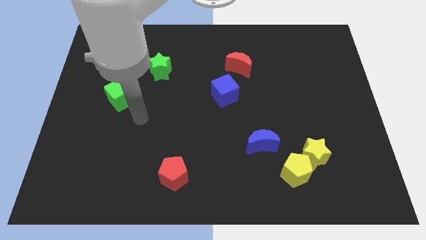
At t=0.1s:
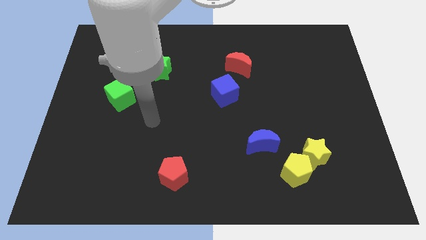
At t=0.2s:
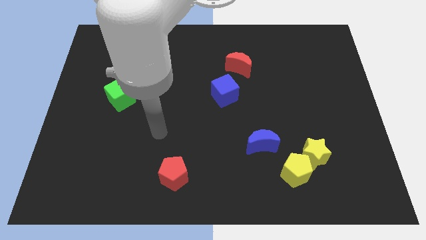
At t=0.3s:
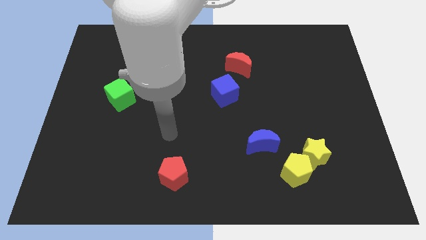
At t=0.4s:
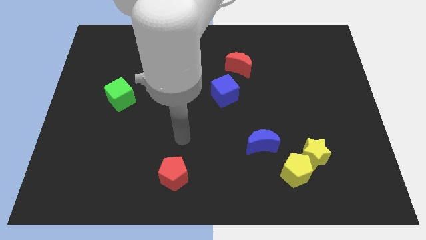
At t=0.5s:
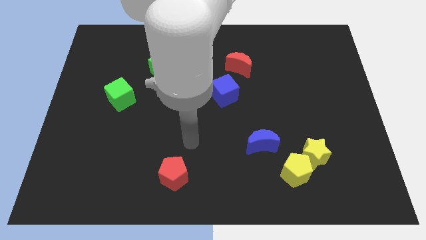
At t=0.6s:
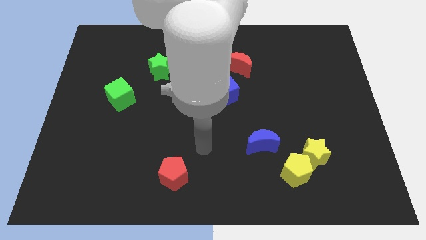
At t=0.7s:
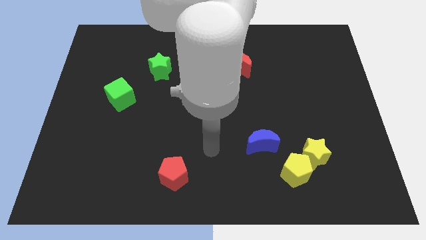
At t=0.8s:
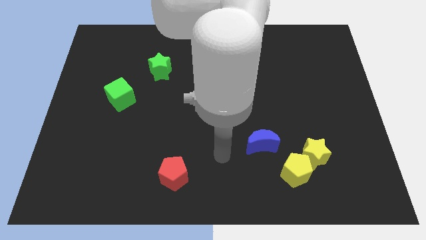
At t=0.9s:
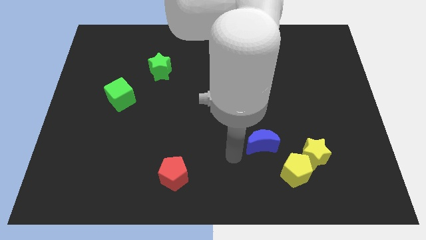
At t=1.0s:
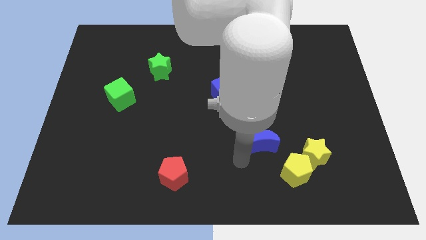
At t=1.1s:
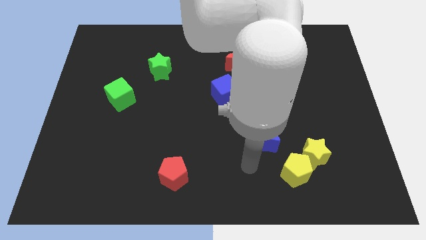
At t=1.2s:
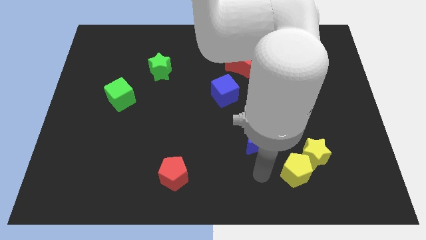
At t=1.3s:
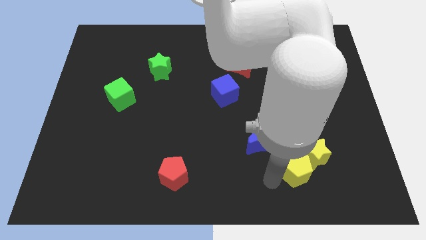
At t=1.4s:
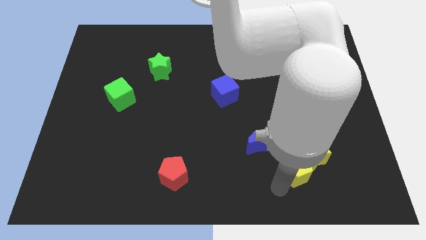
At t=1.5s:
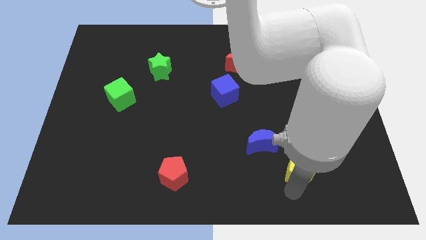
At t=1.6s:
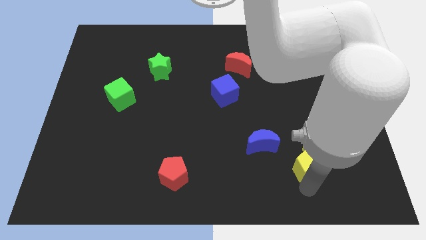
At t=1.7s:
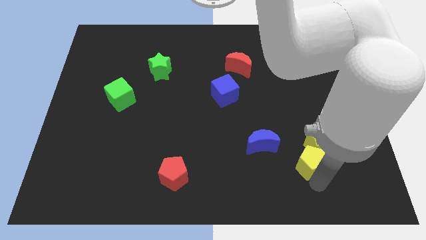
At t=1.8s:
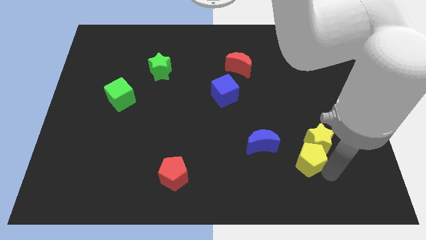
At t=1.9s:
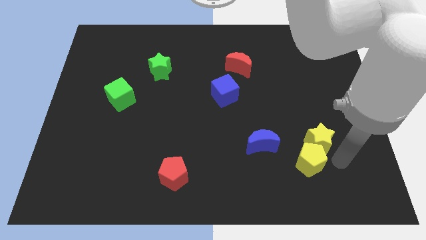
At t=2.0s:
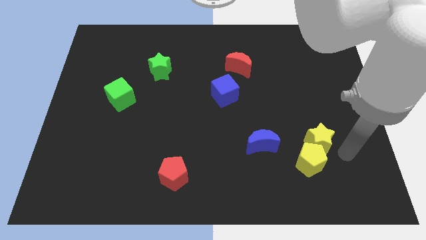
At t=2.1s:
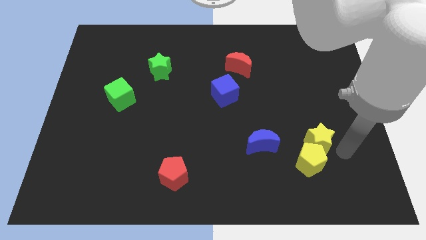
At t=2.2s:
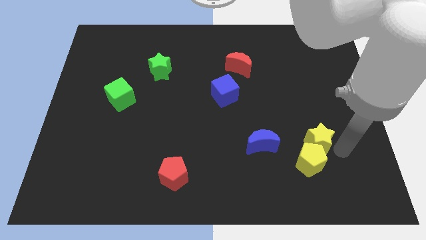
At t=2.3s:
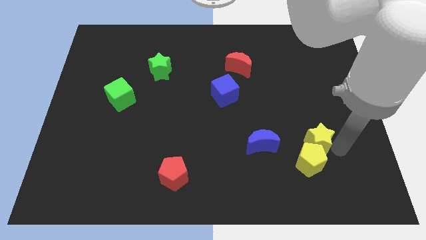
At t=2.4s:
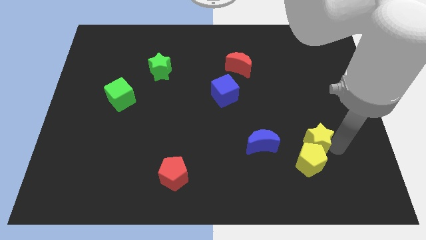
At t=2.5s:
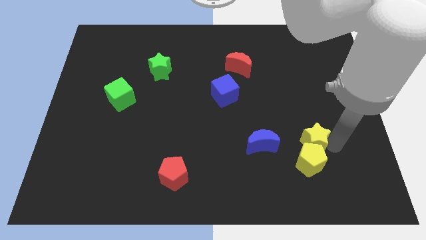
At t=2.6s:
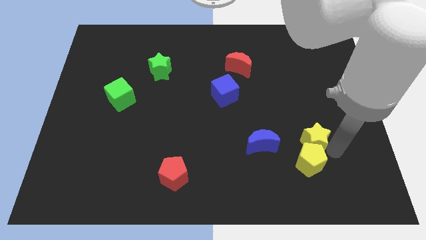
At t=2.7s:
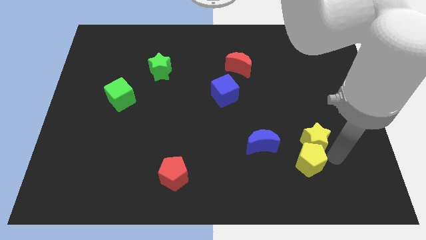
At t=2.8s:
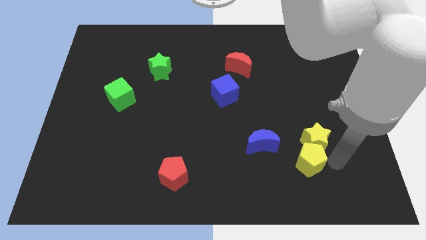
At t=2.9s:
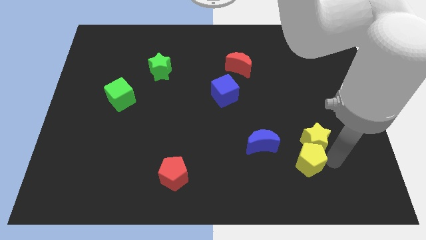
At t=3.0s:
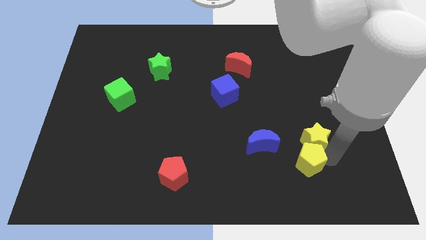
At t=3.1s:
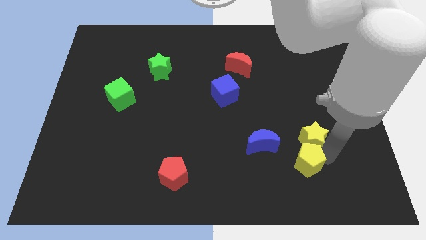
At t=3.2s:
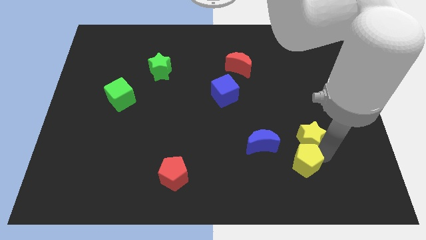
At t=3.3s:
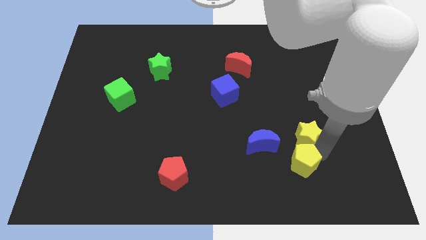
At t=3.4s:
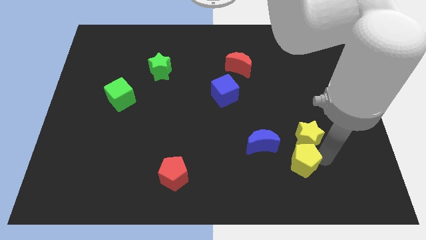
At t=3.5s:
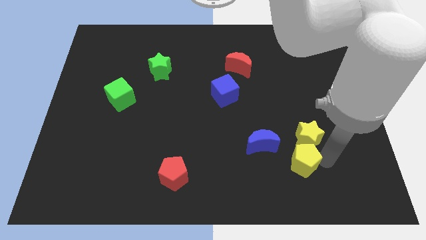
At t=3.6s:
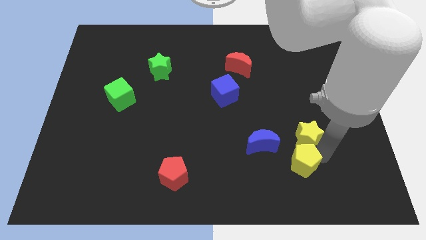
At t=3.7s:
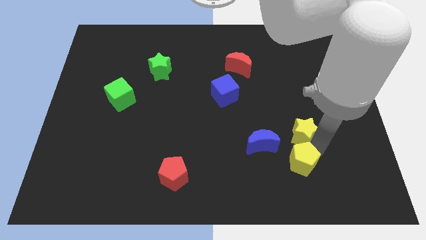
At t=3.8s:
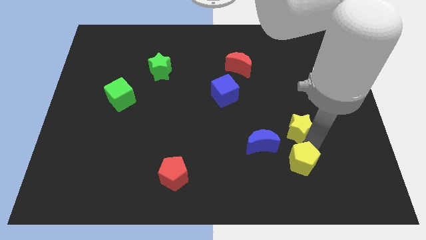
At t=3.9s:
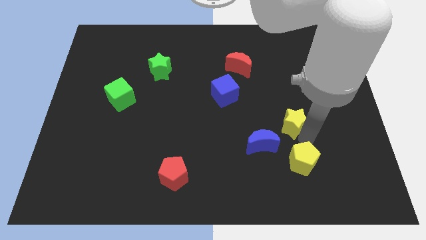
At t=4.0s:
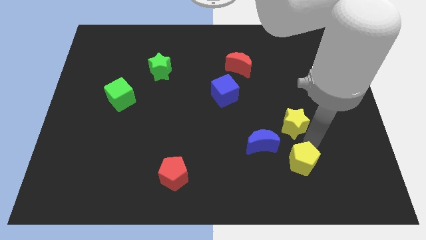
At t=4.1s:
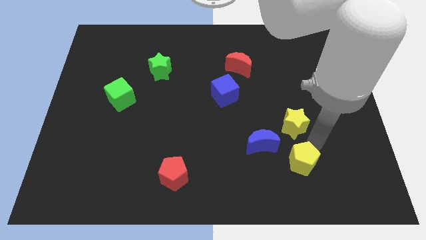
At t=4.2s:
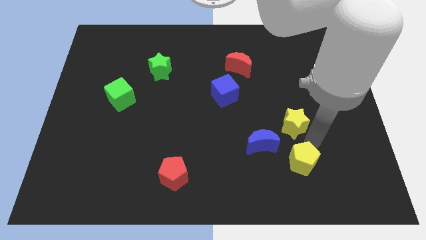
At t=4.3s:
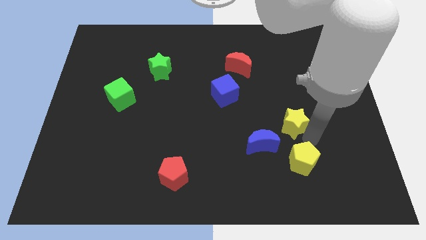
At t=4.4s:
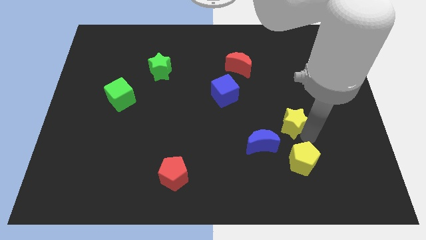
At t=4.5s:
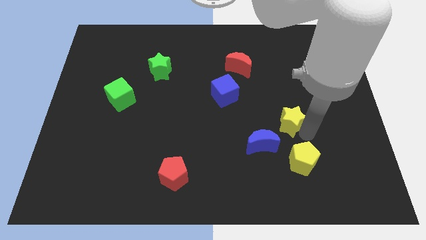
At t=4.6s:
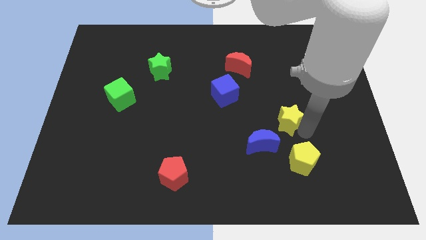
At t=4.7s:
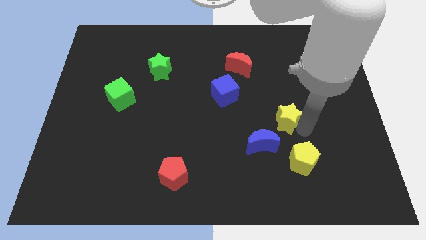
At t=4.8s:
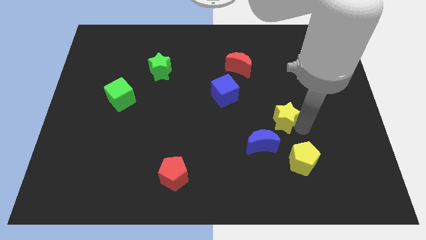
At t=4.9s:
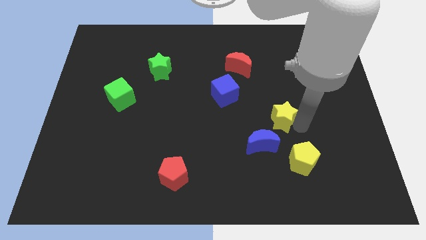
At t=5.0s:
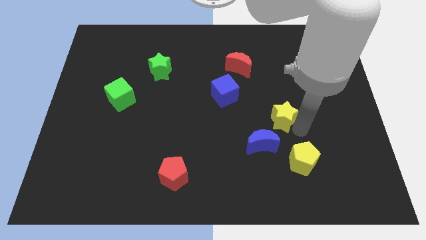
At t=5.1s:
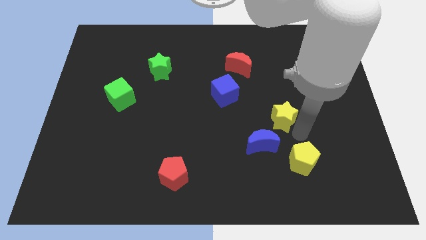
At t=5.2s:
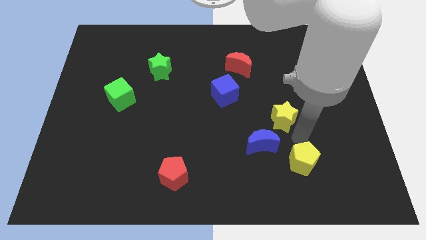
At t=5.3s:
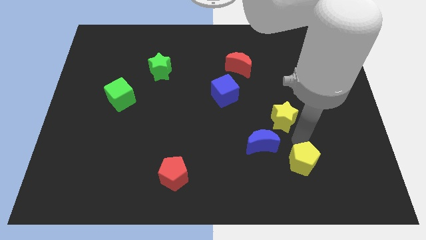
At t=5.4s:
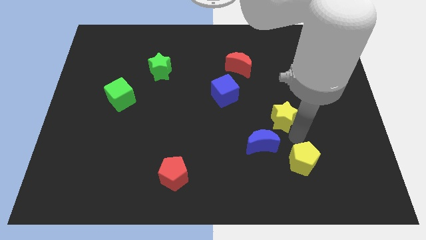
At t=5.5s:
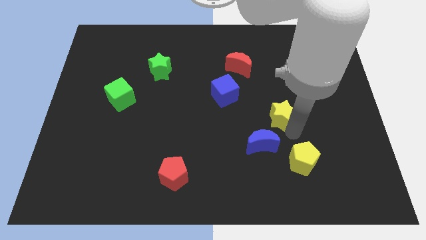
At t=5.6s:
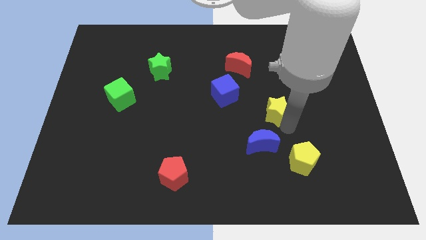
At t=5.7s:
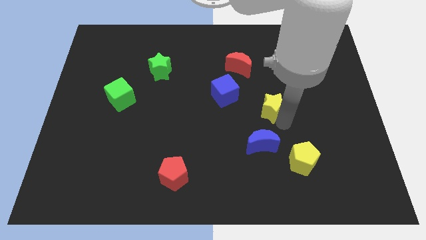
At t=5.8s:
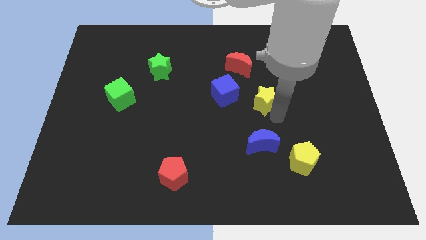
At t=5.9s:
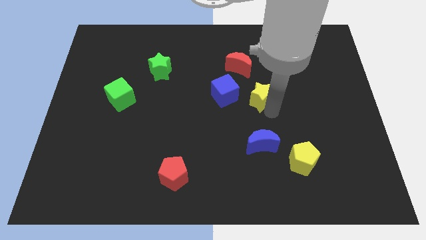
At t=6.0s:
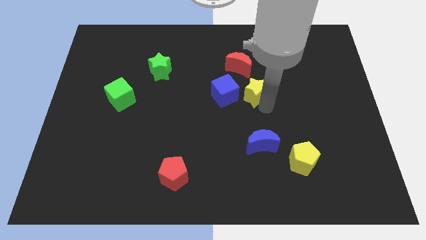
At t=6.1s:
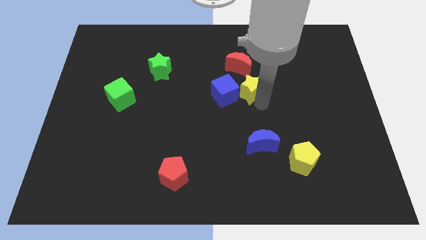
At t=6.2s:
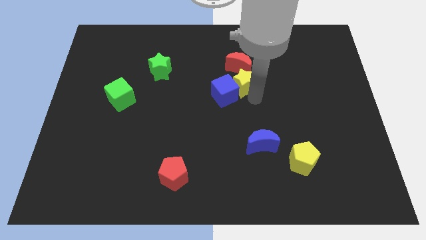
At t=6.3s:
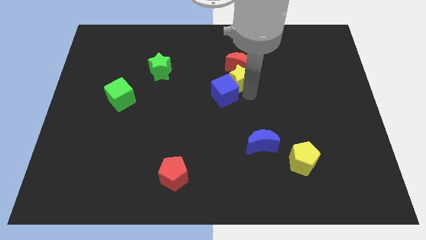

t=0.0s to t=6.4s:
move the yellow star towards the red moon

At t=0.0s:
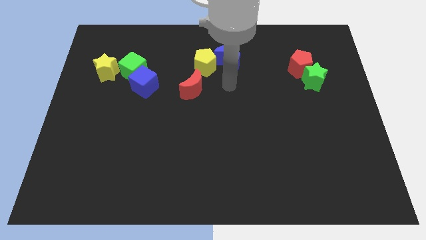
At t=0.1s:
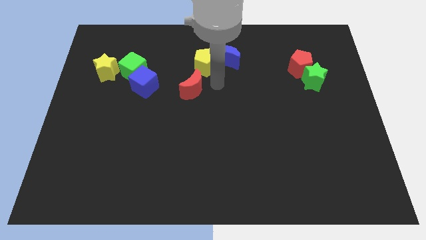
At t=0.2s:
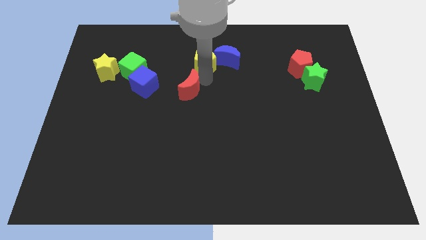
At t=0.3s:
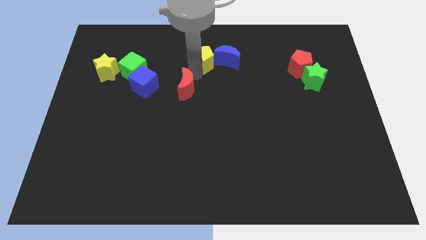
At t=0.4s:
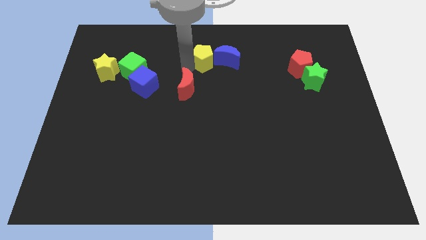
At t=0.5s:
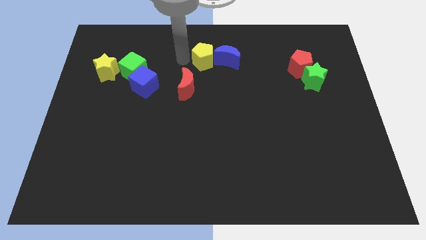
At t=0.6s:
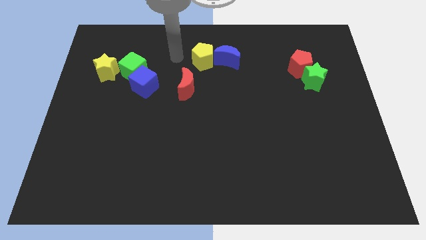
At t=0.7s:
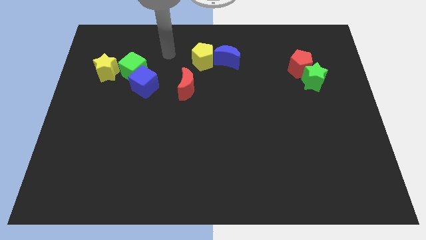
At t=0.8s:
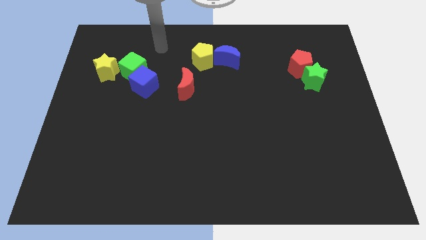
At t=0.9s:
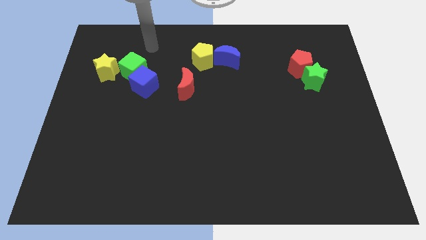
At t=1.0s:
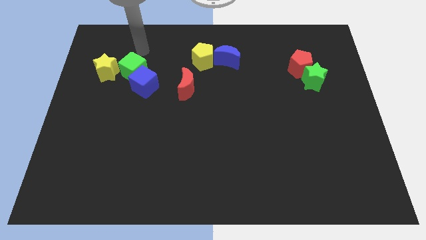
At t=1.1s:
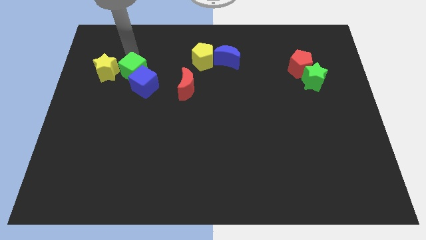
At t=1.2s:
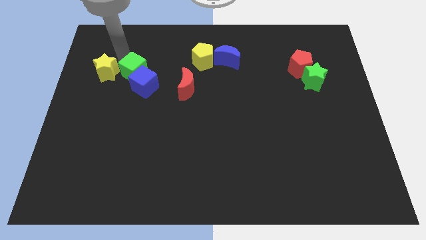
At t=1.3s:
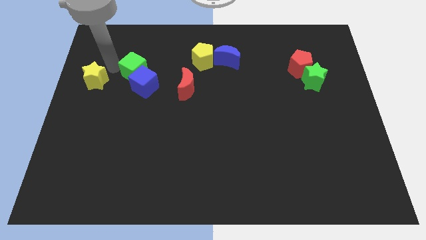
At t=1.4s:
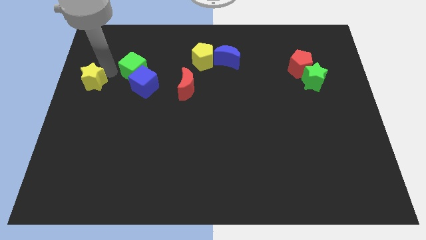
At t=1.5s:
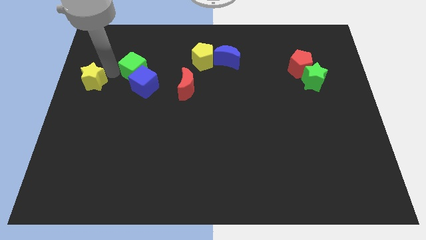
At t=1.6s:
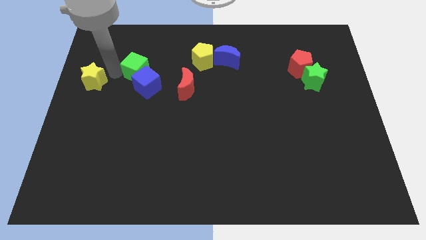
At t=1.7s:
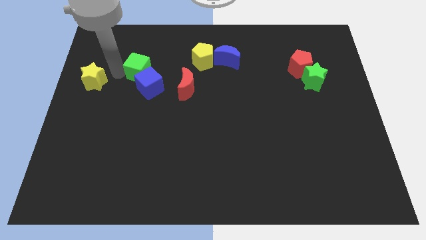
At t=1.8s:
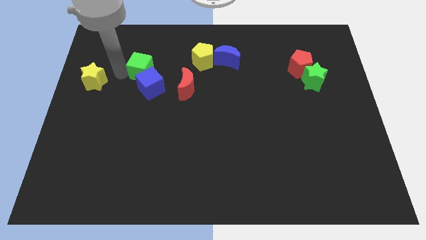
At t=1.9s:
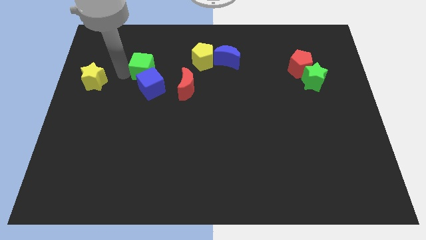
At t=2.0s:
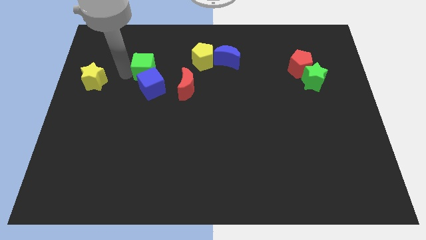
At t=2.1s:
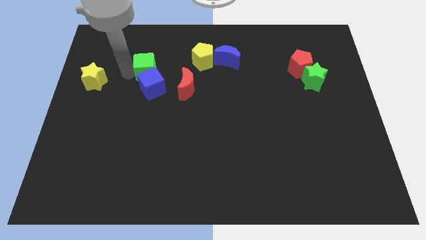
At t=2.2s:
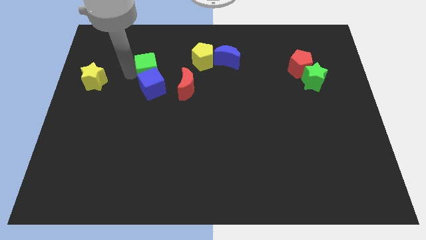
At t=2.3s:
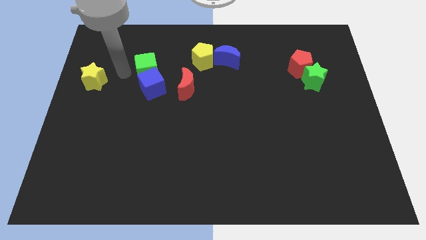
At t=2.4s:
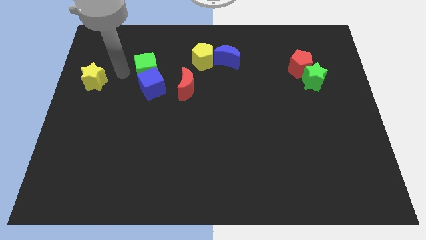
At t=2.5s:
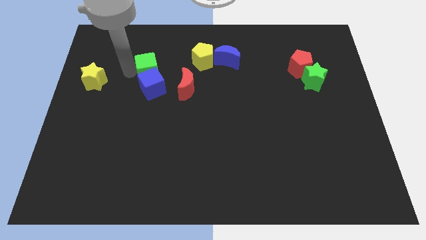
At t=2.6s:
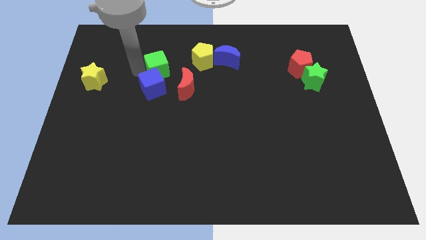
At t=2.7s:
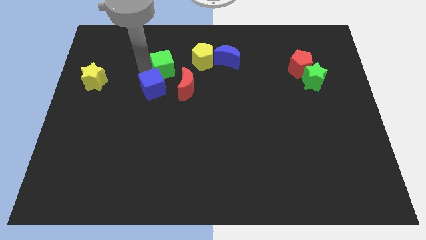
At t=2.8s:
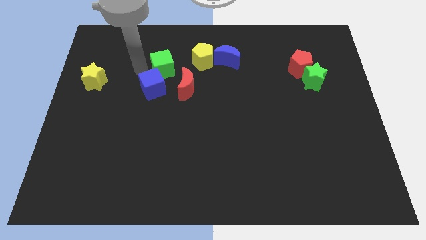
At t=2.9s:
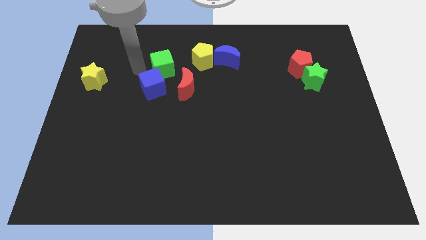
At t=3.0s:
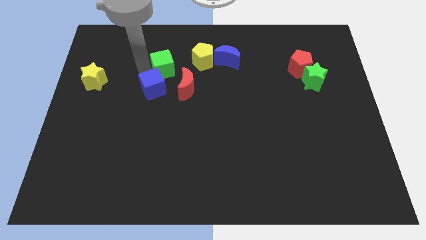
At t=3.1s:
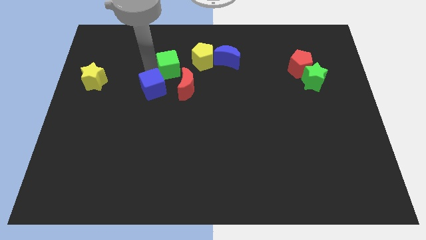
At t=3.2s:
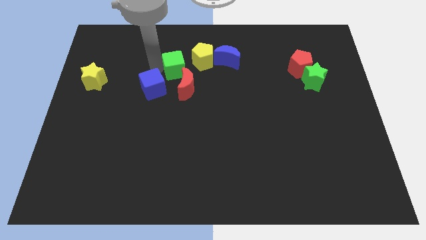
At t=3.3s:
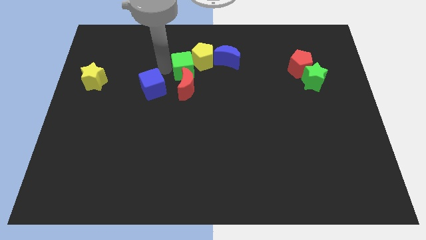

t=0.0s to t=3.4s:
put the green cube towards the yellow pentagon
